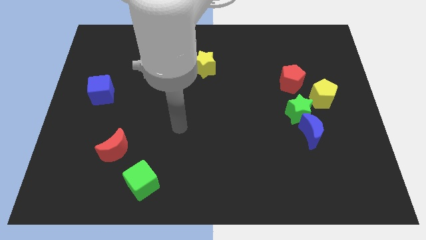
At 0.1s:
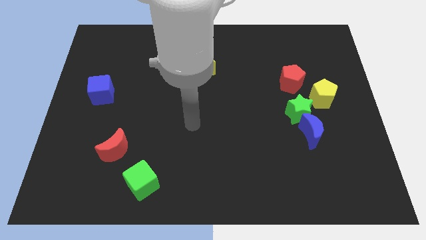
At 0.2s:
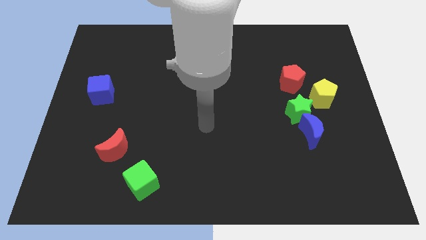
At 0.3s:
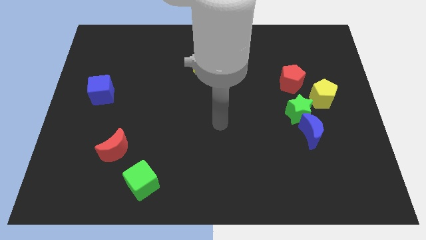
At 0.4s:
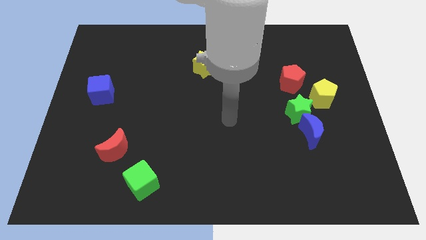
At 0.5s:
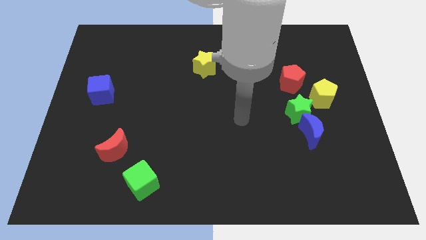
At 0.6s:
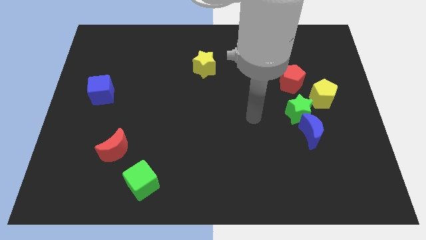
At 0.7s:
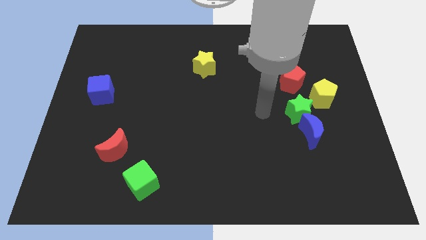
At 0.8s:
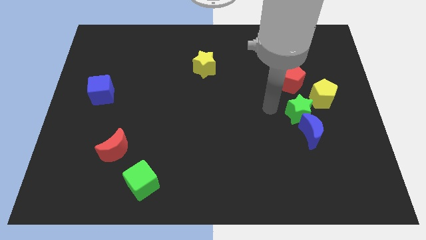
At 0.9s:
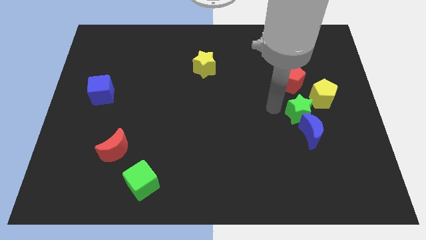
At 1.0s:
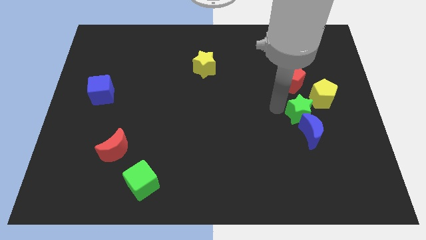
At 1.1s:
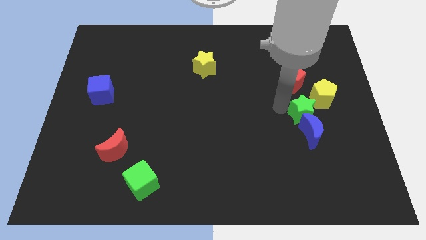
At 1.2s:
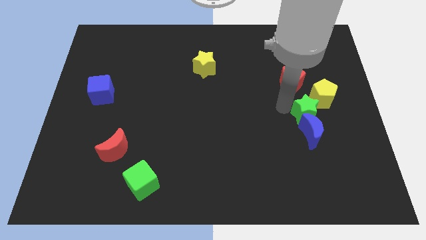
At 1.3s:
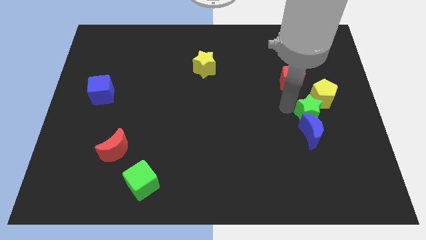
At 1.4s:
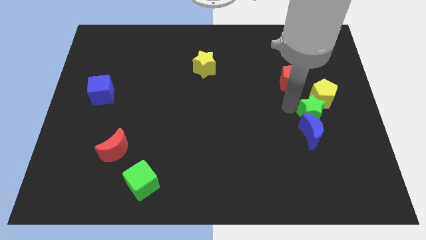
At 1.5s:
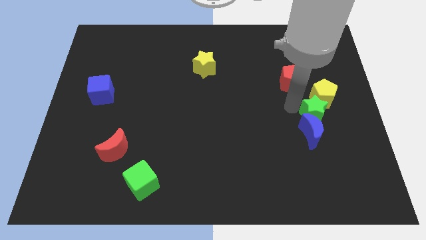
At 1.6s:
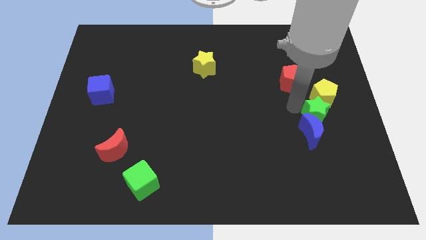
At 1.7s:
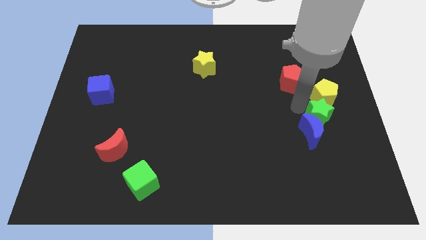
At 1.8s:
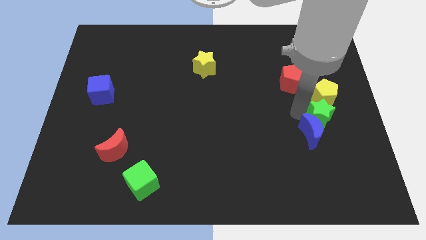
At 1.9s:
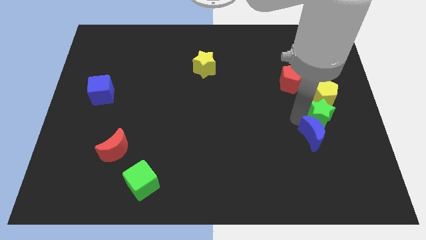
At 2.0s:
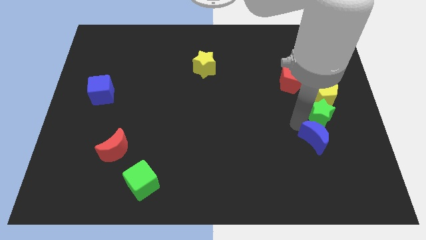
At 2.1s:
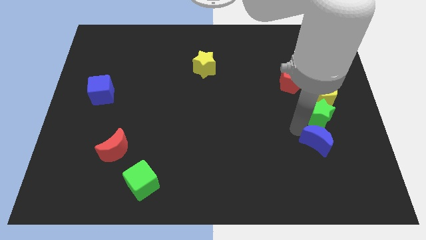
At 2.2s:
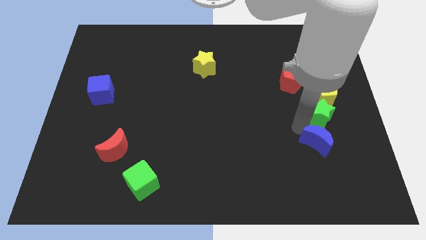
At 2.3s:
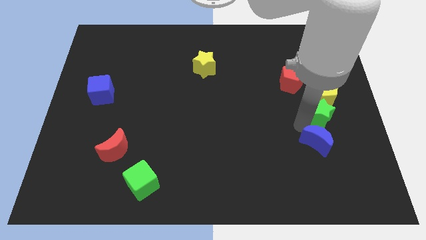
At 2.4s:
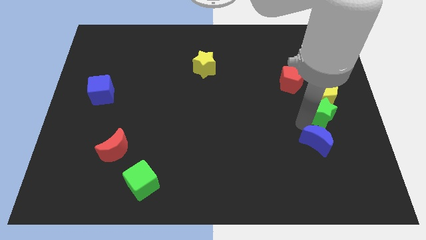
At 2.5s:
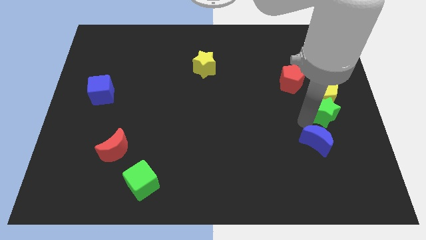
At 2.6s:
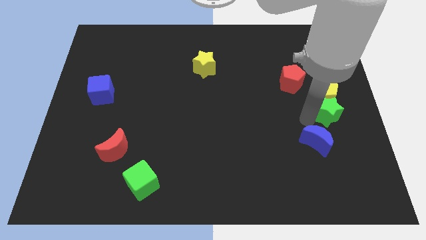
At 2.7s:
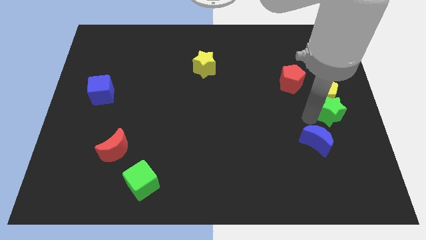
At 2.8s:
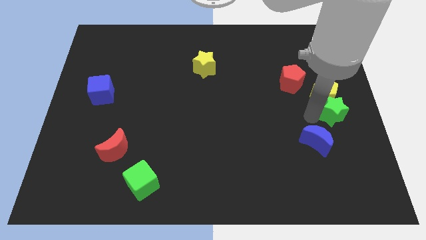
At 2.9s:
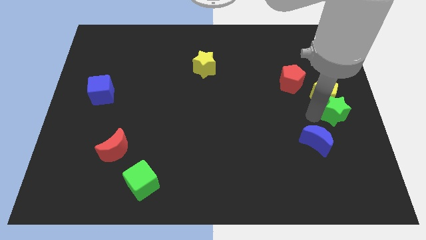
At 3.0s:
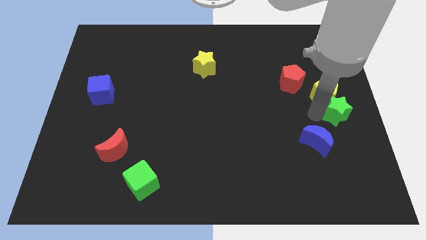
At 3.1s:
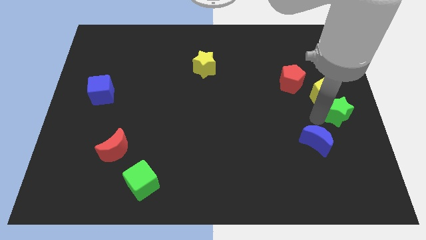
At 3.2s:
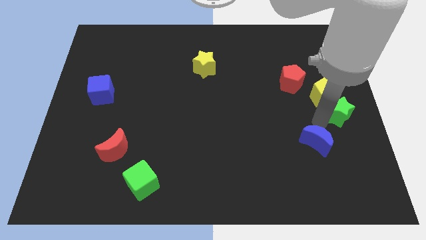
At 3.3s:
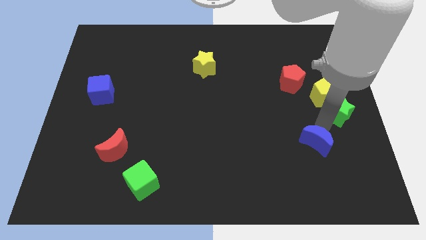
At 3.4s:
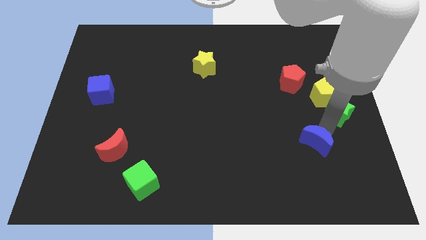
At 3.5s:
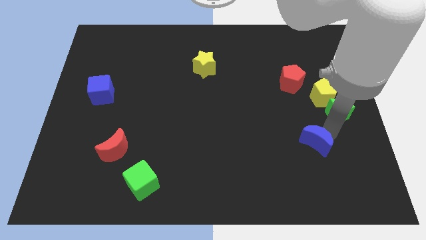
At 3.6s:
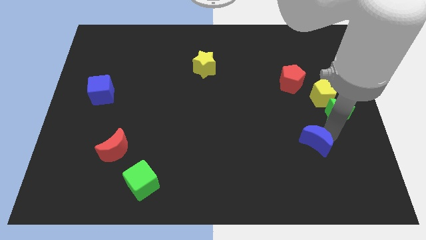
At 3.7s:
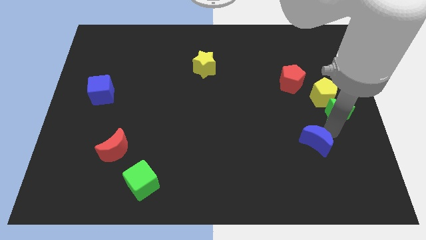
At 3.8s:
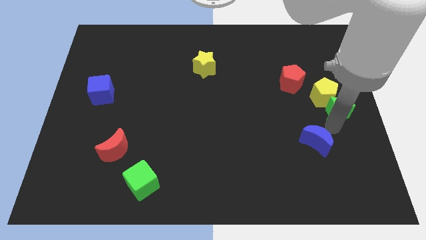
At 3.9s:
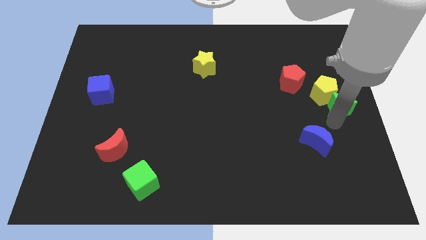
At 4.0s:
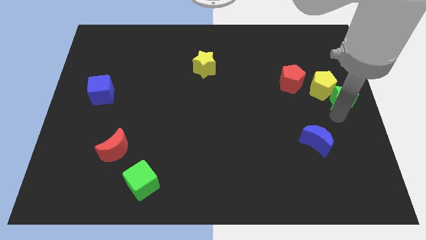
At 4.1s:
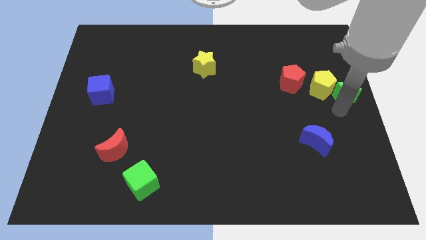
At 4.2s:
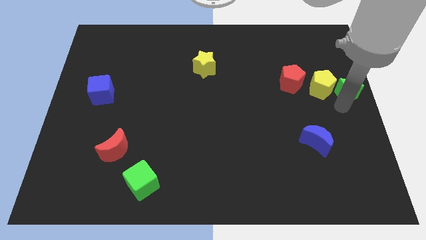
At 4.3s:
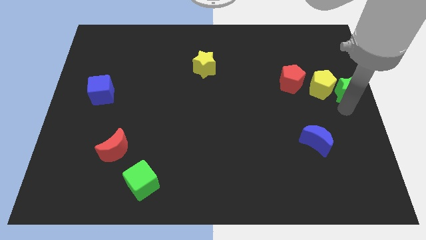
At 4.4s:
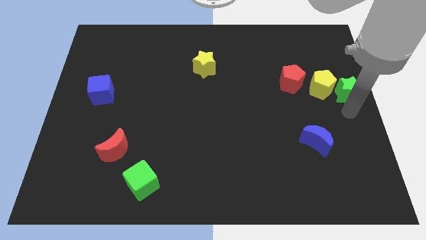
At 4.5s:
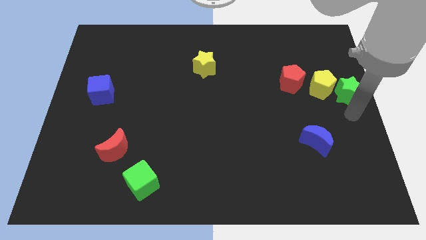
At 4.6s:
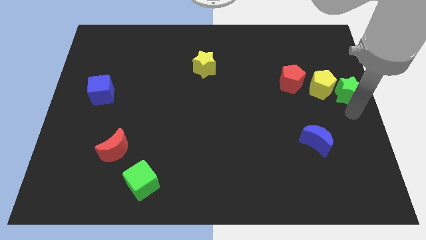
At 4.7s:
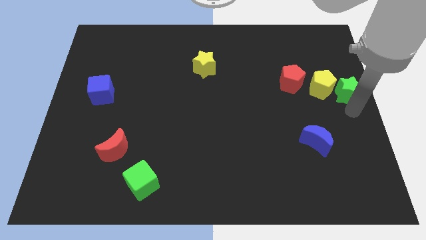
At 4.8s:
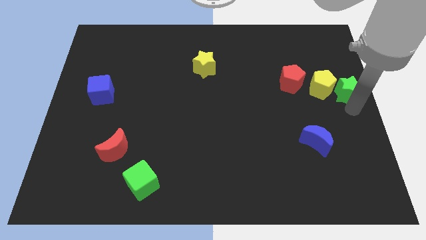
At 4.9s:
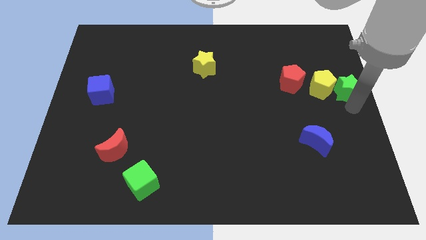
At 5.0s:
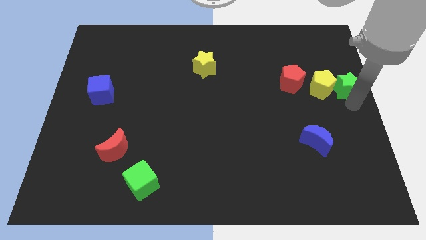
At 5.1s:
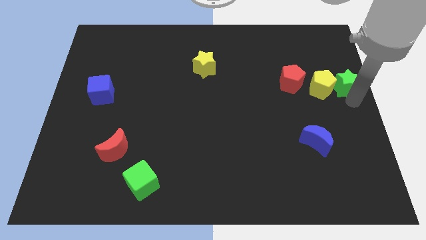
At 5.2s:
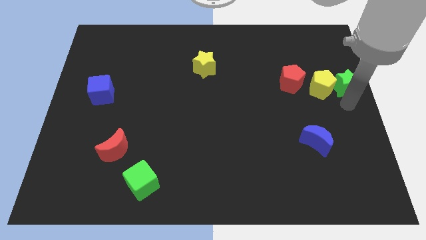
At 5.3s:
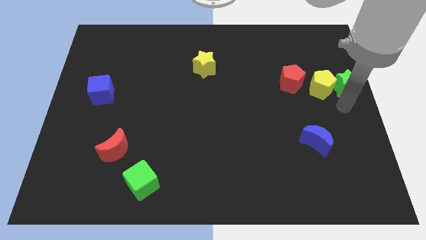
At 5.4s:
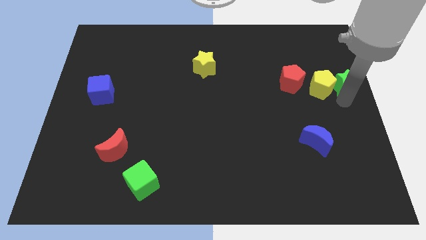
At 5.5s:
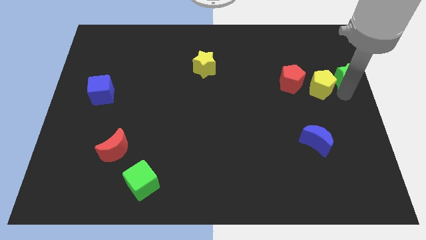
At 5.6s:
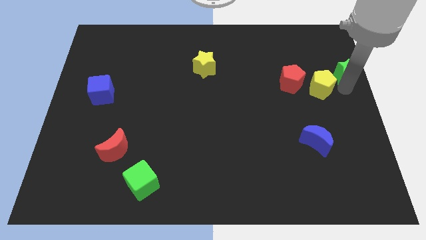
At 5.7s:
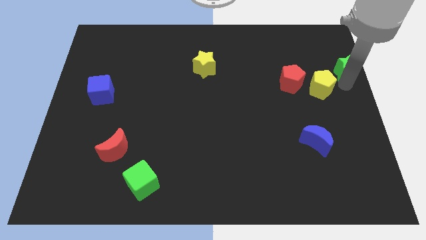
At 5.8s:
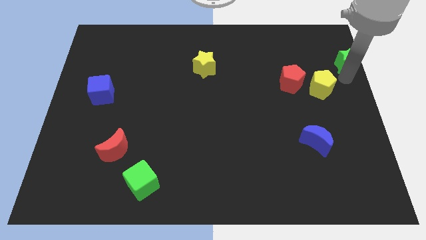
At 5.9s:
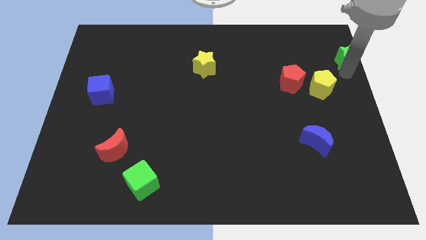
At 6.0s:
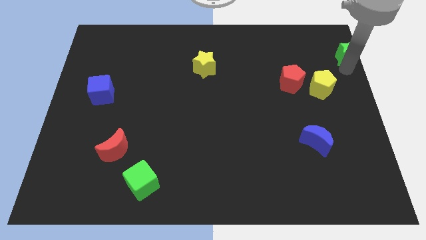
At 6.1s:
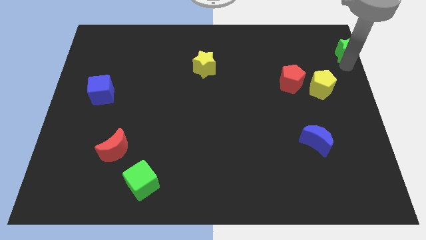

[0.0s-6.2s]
move the green star to the top right of the board
